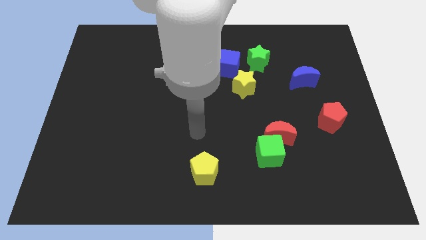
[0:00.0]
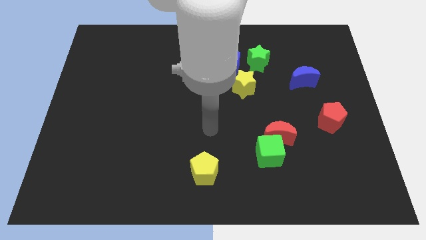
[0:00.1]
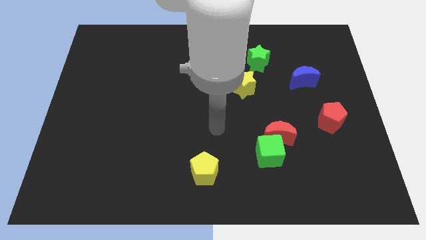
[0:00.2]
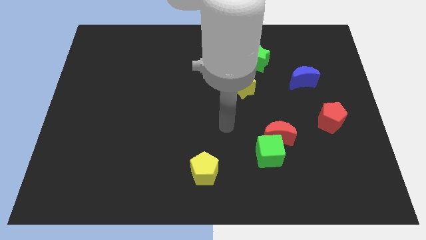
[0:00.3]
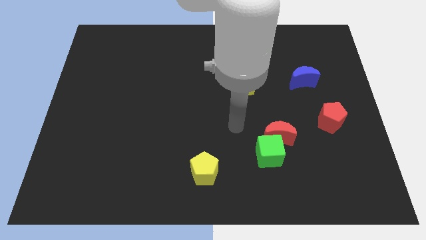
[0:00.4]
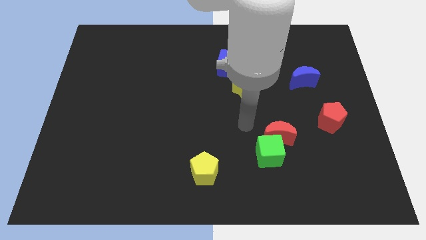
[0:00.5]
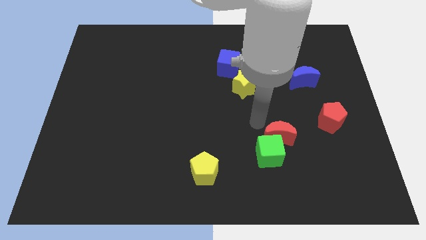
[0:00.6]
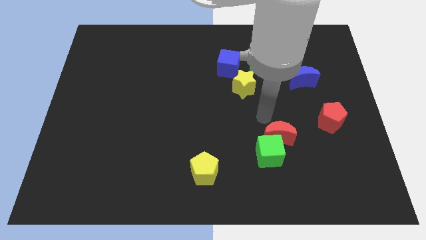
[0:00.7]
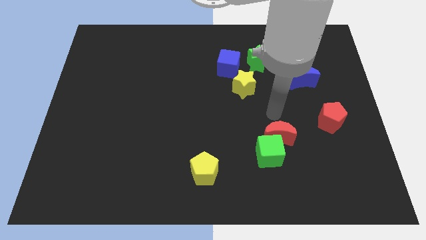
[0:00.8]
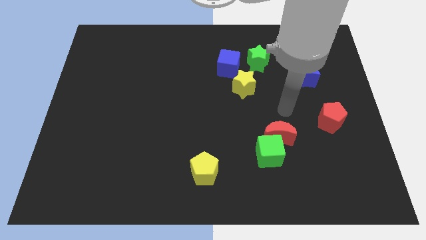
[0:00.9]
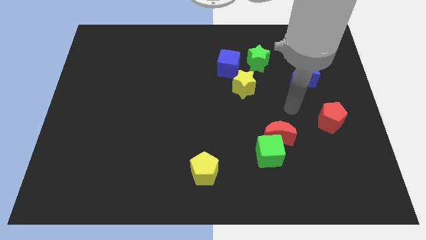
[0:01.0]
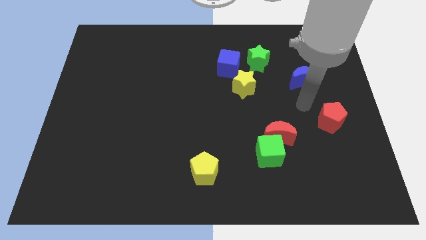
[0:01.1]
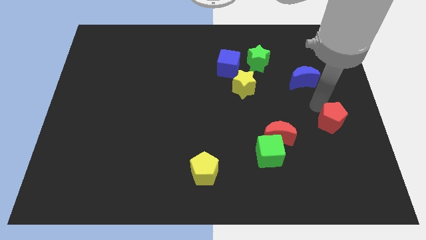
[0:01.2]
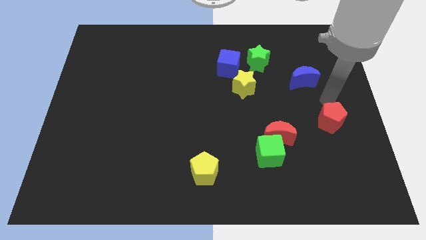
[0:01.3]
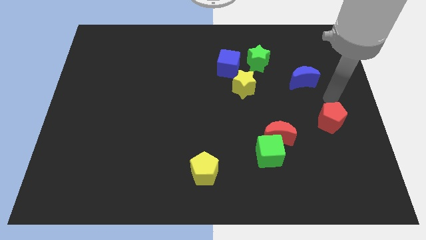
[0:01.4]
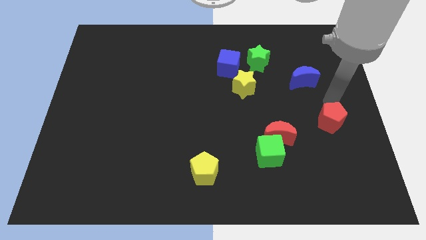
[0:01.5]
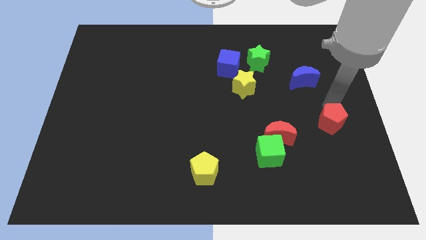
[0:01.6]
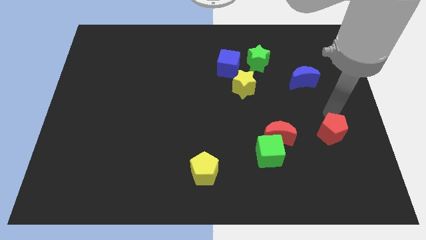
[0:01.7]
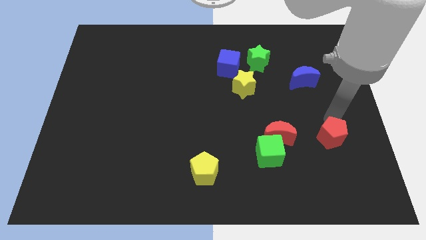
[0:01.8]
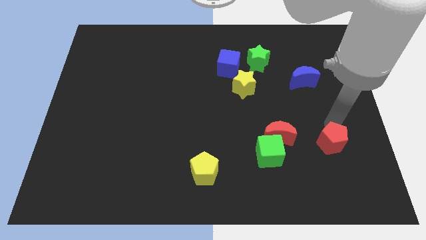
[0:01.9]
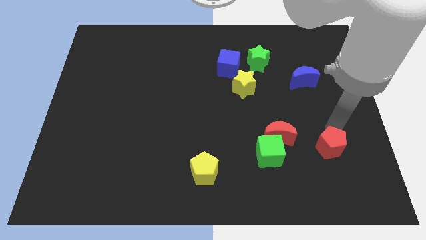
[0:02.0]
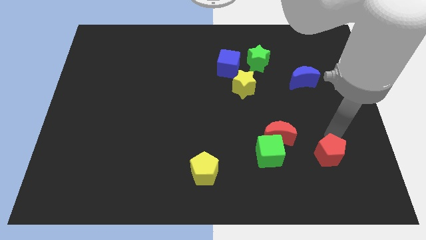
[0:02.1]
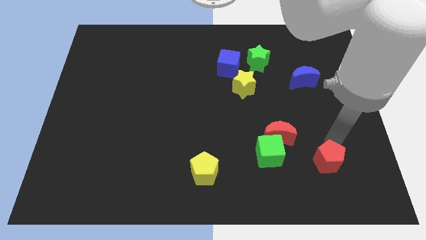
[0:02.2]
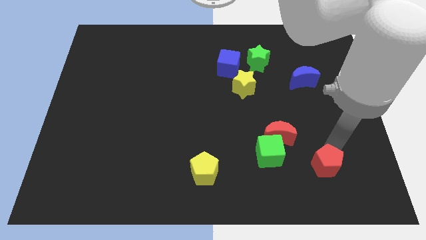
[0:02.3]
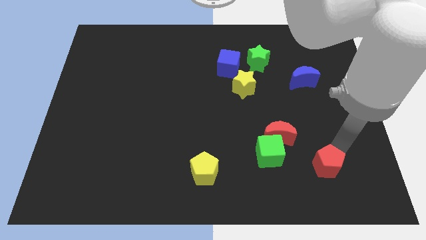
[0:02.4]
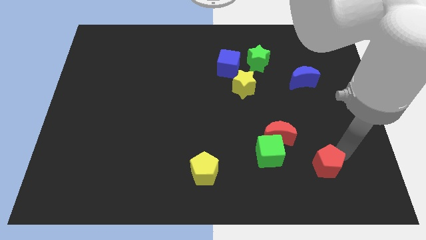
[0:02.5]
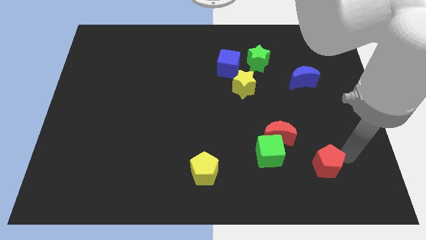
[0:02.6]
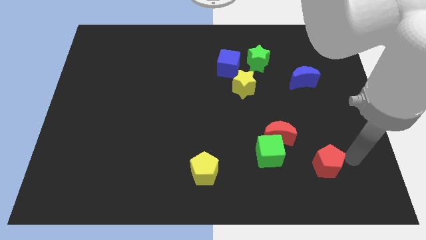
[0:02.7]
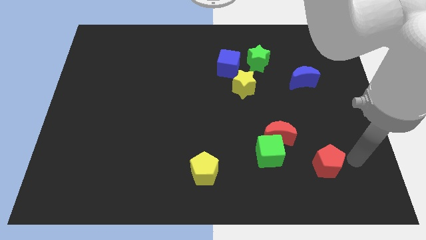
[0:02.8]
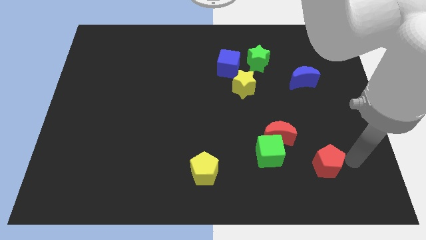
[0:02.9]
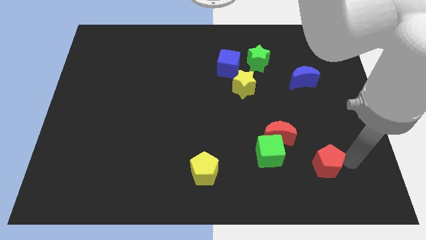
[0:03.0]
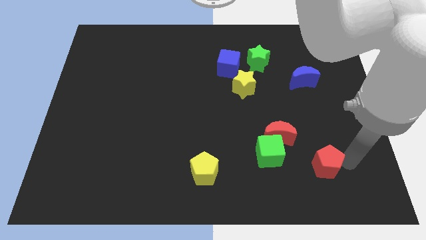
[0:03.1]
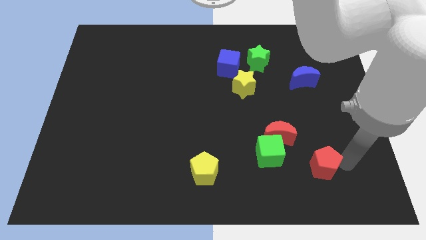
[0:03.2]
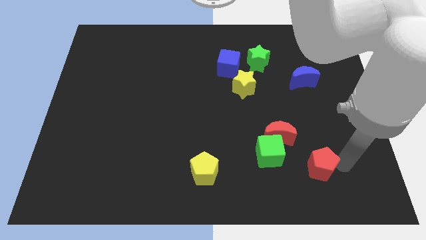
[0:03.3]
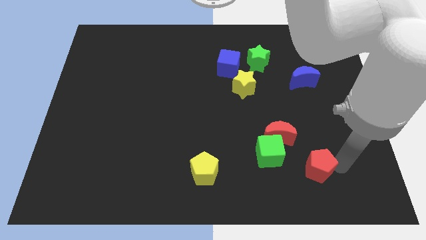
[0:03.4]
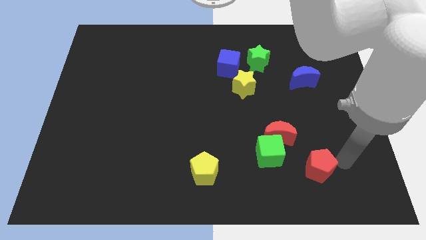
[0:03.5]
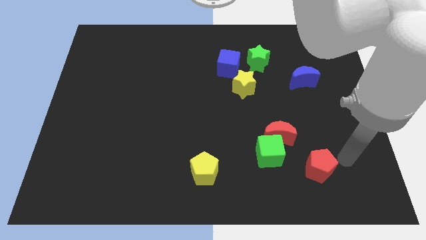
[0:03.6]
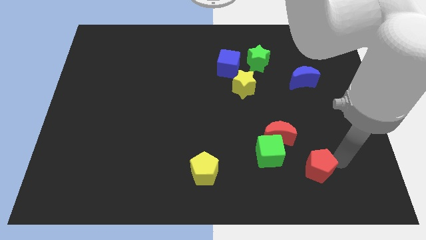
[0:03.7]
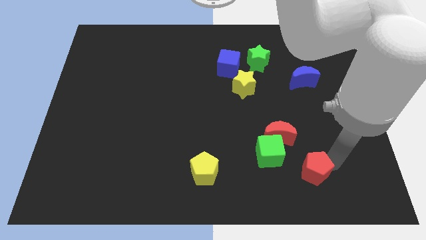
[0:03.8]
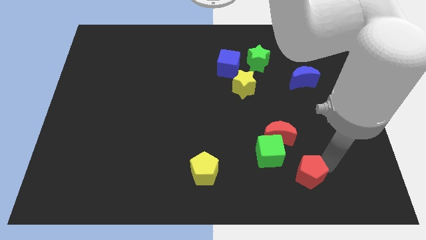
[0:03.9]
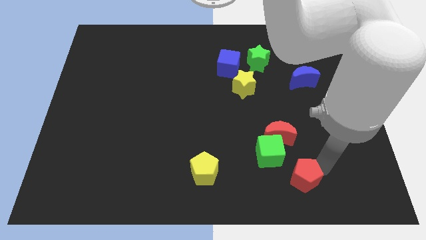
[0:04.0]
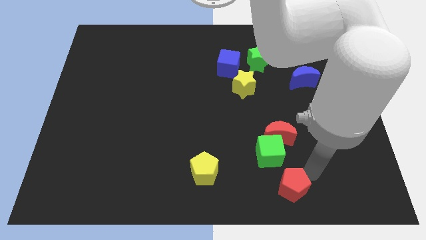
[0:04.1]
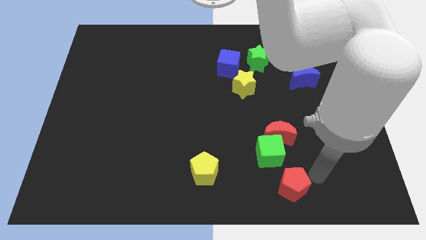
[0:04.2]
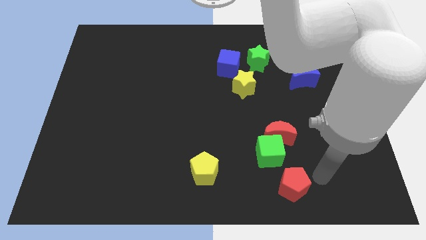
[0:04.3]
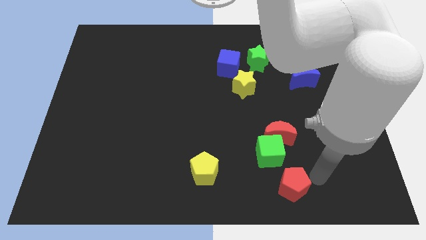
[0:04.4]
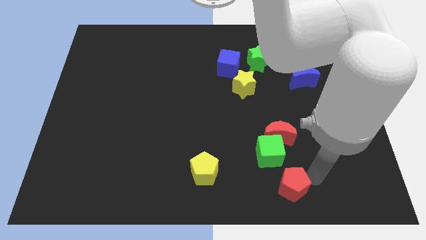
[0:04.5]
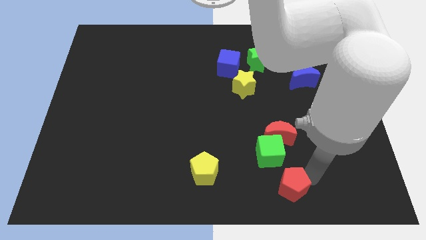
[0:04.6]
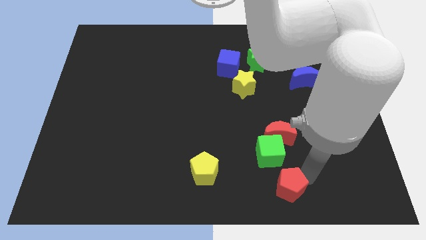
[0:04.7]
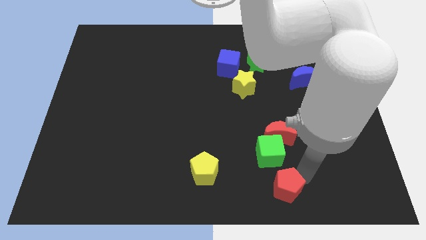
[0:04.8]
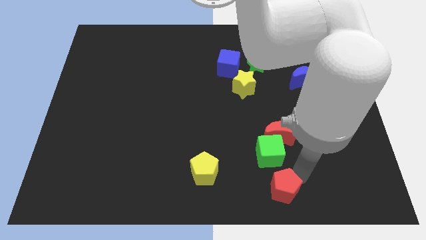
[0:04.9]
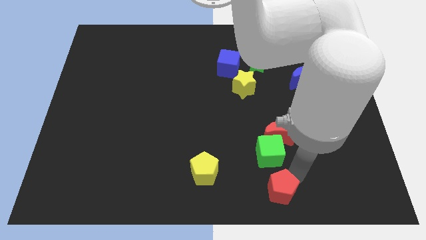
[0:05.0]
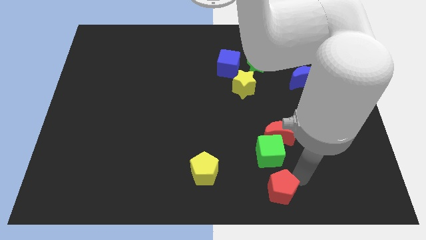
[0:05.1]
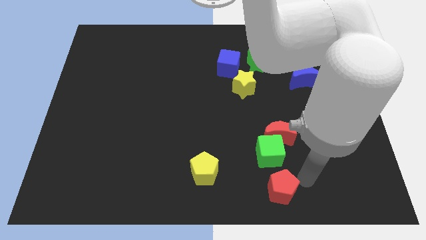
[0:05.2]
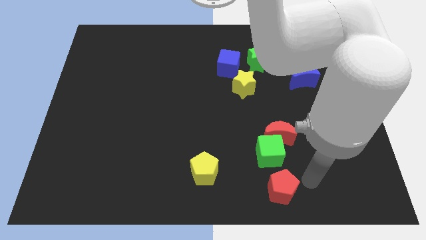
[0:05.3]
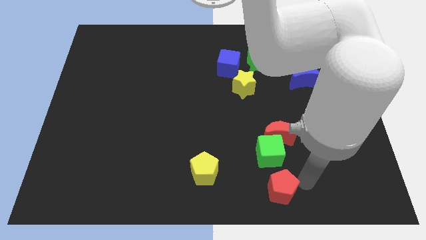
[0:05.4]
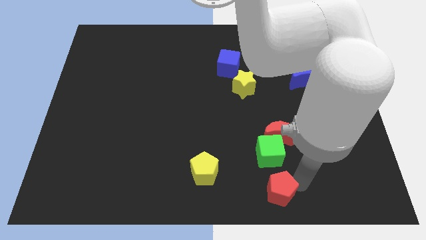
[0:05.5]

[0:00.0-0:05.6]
move the red pentagon to the bottom

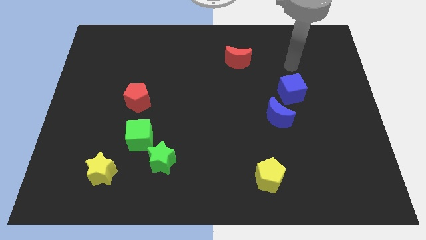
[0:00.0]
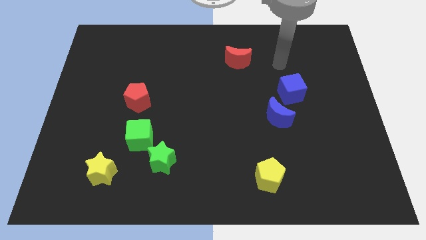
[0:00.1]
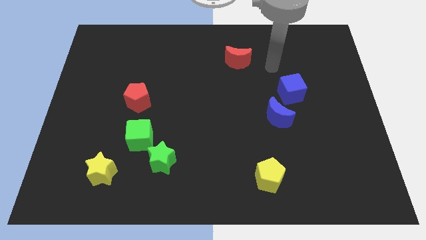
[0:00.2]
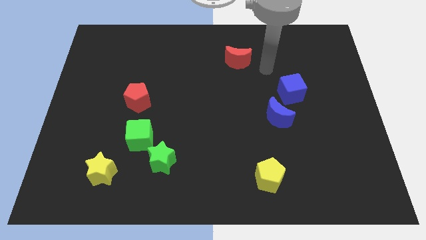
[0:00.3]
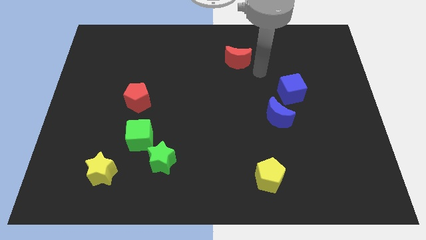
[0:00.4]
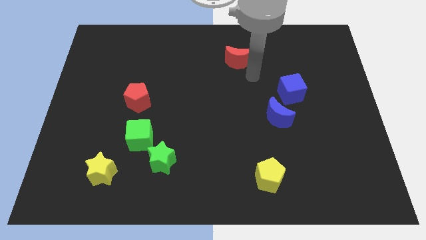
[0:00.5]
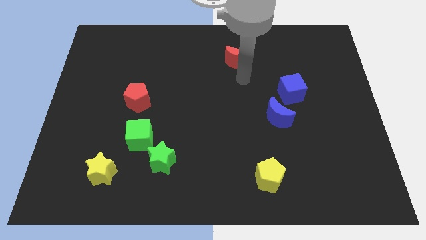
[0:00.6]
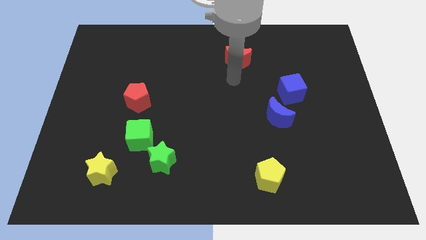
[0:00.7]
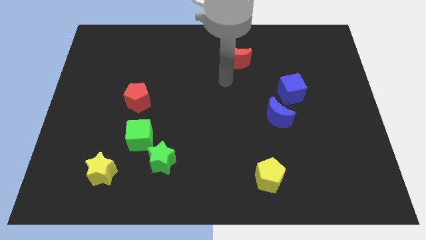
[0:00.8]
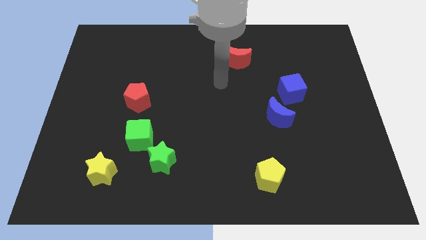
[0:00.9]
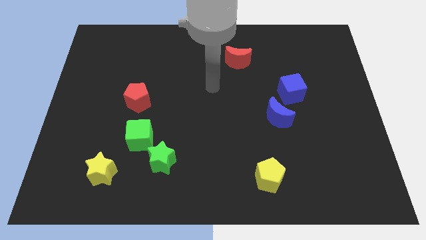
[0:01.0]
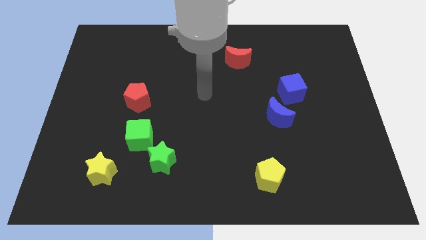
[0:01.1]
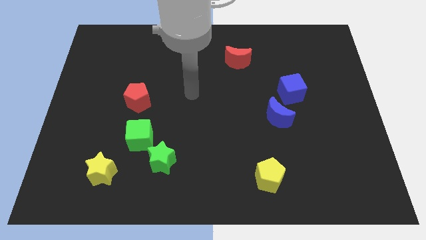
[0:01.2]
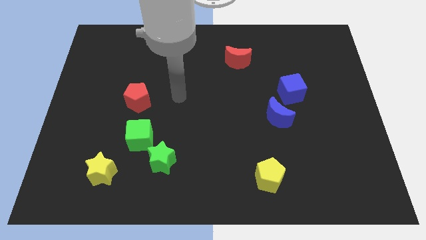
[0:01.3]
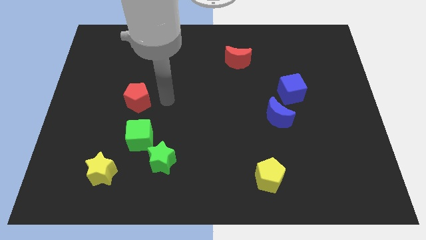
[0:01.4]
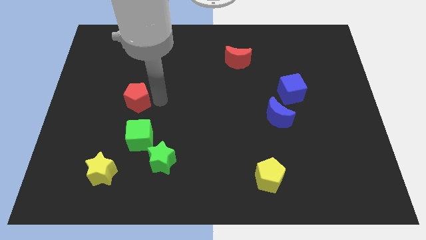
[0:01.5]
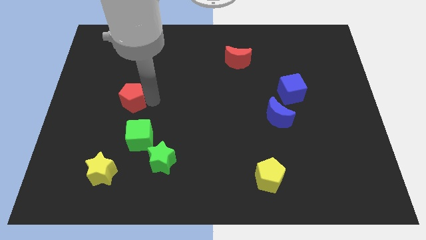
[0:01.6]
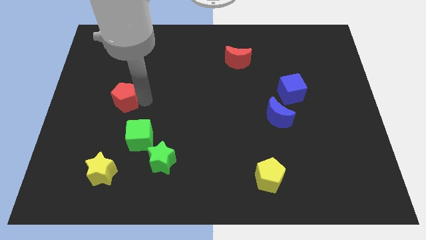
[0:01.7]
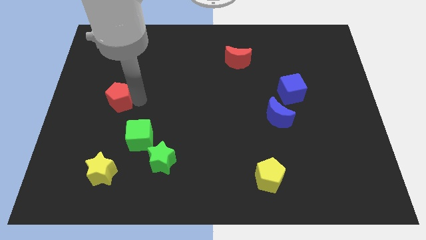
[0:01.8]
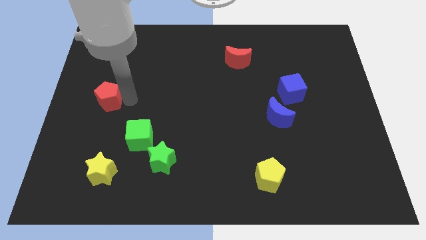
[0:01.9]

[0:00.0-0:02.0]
move the red pentagon to the left side
